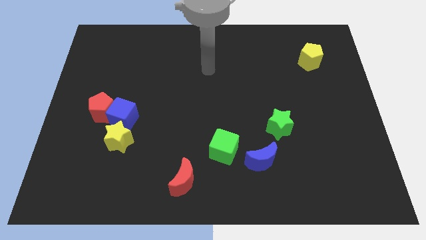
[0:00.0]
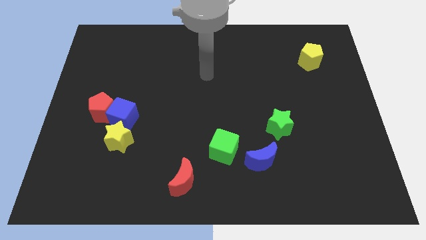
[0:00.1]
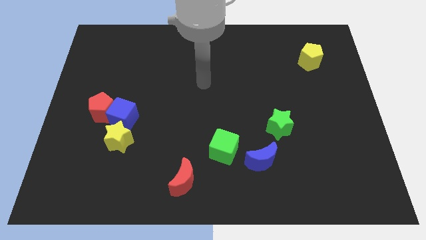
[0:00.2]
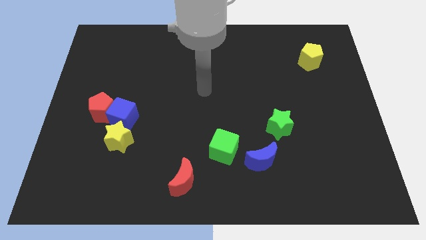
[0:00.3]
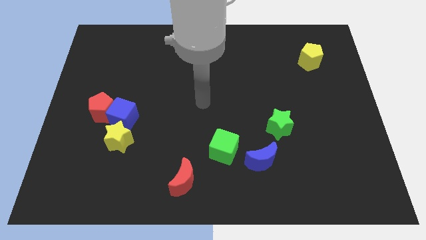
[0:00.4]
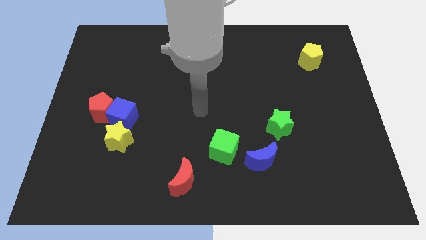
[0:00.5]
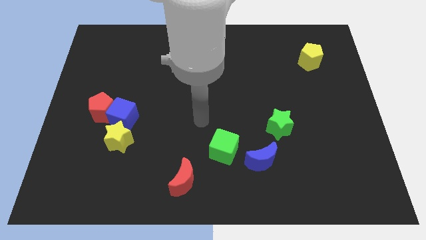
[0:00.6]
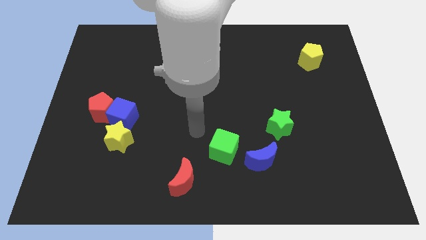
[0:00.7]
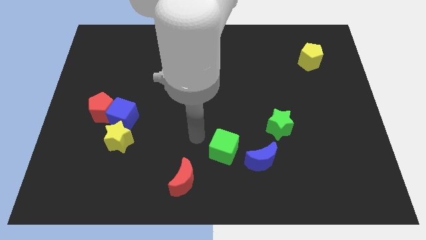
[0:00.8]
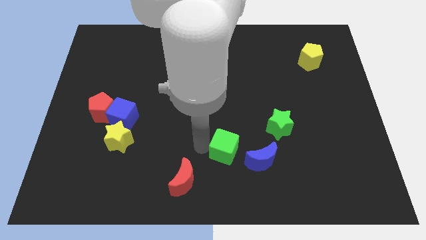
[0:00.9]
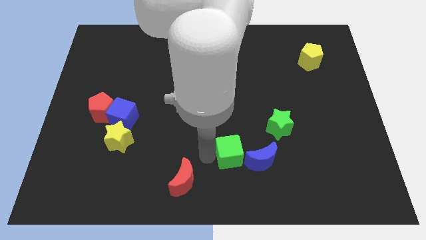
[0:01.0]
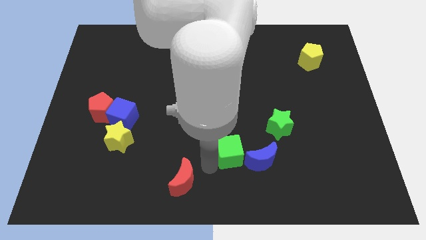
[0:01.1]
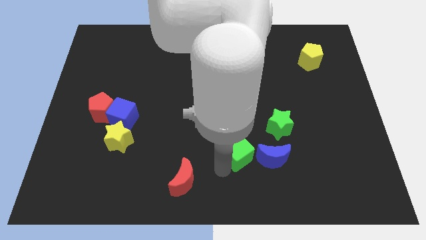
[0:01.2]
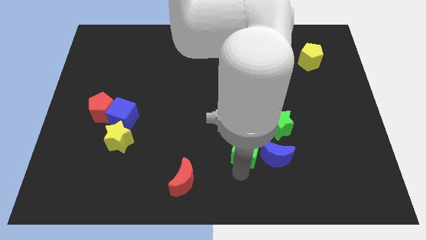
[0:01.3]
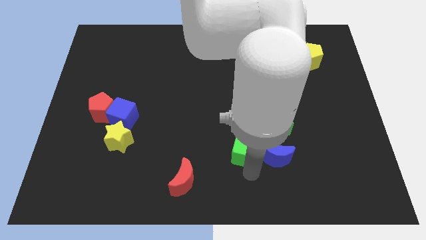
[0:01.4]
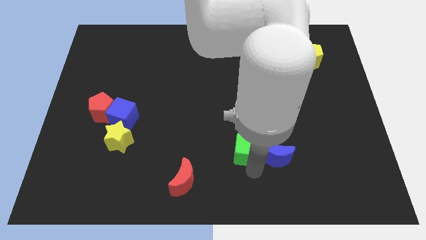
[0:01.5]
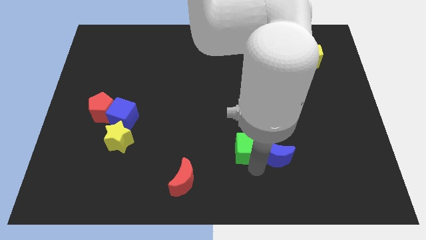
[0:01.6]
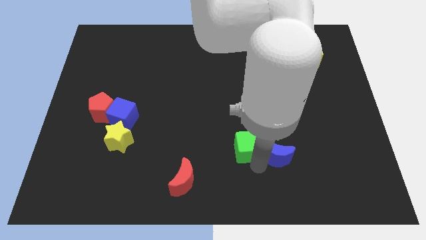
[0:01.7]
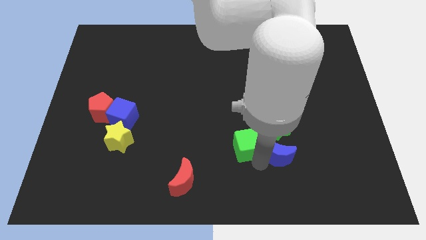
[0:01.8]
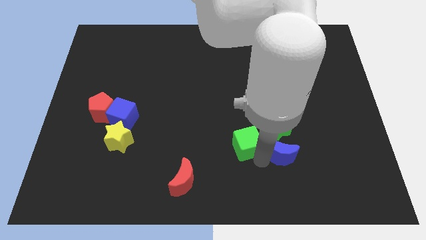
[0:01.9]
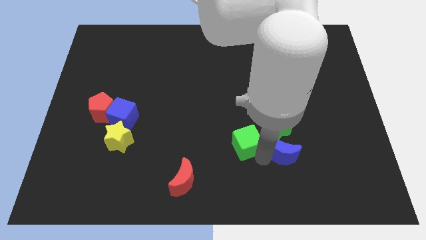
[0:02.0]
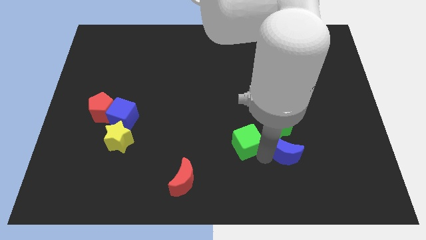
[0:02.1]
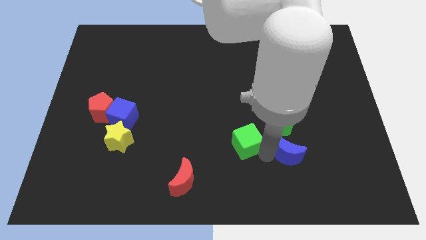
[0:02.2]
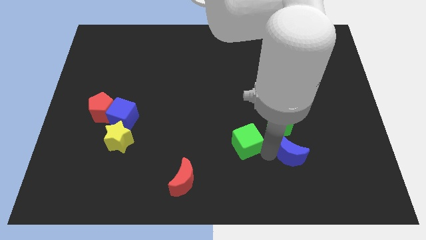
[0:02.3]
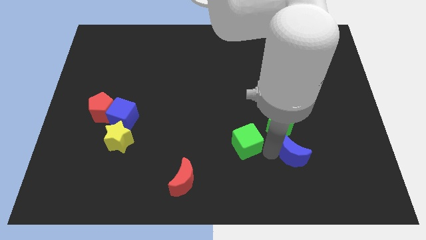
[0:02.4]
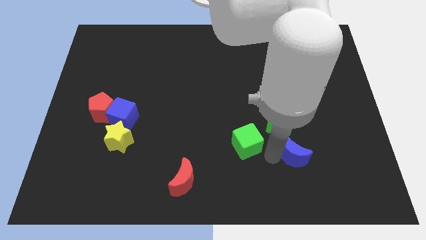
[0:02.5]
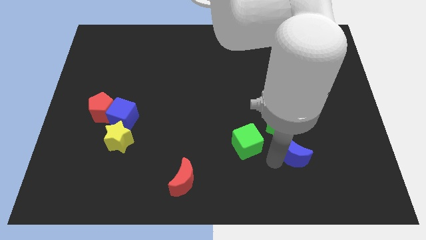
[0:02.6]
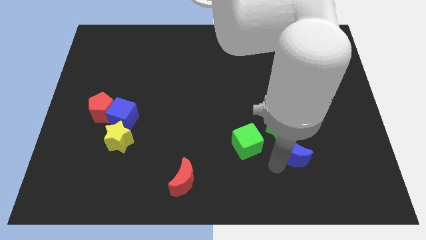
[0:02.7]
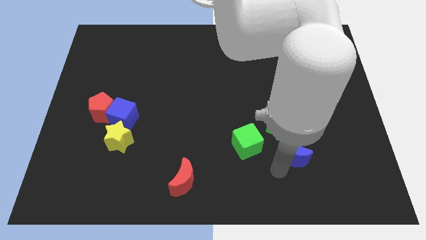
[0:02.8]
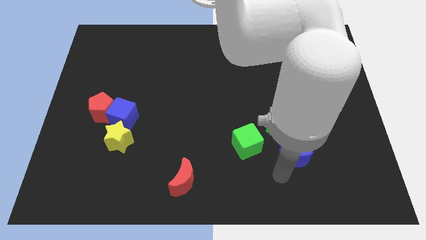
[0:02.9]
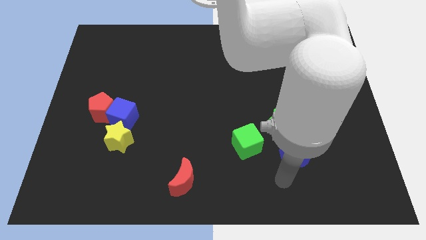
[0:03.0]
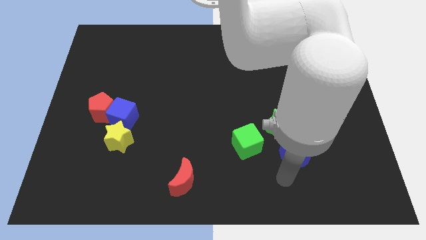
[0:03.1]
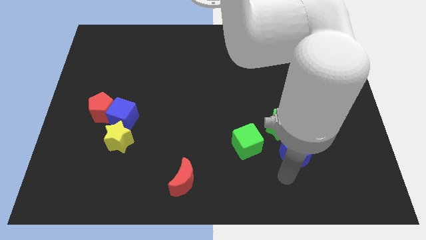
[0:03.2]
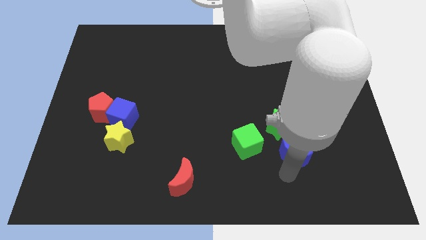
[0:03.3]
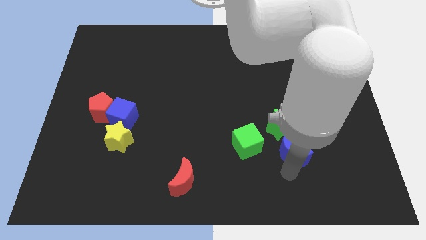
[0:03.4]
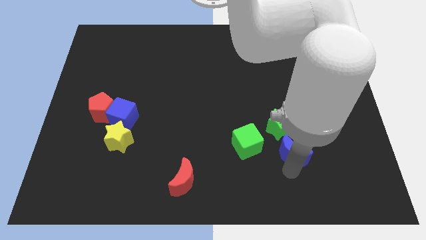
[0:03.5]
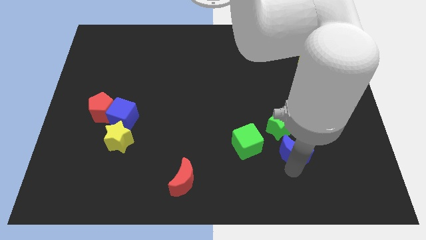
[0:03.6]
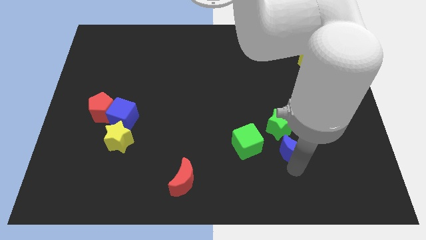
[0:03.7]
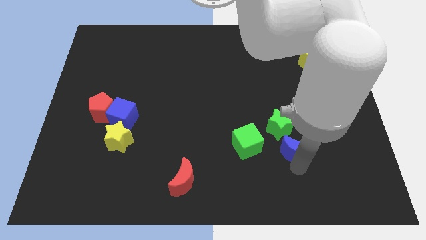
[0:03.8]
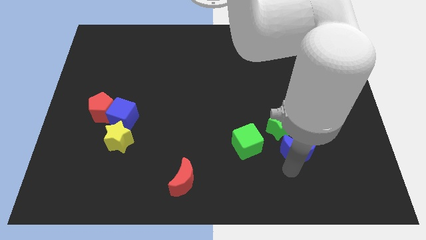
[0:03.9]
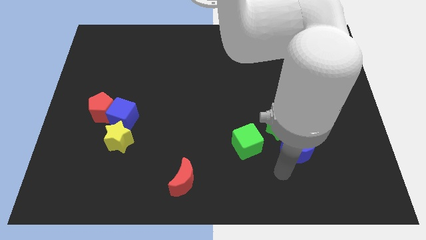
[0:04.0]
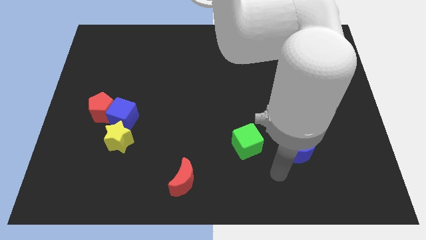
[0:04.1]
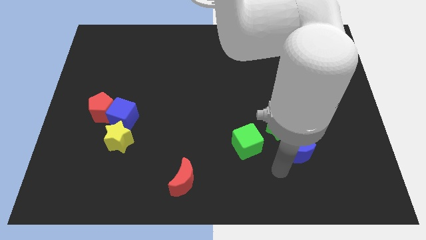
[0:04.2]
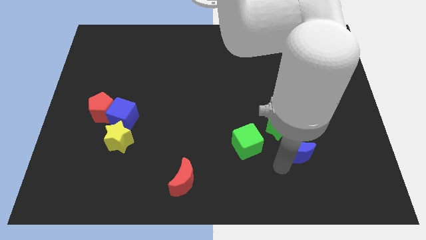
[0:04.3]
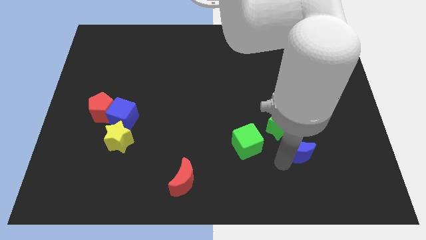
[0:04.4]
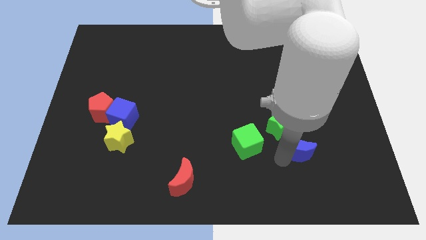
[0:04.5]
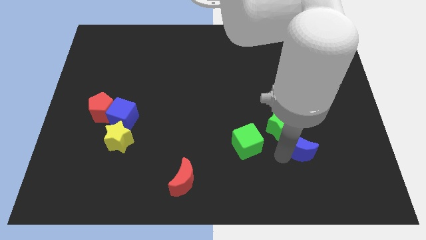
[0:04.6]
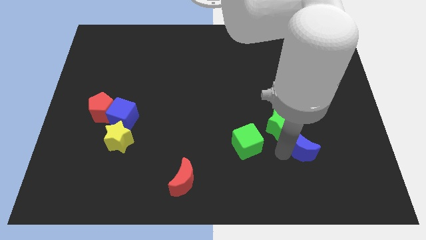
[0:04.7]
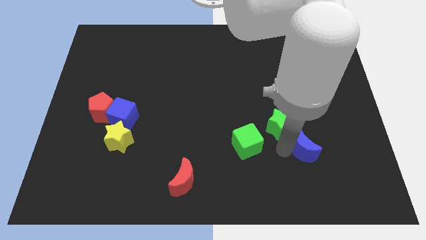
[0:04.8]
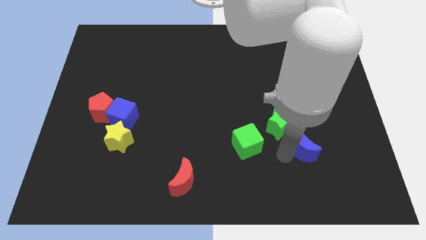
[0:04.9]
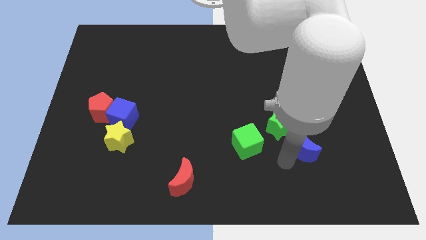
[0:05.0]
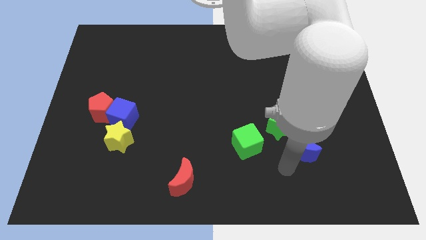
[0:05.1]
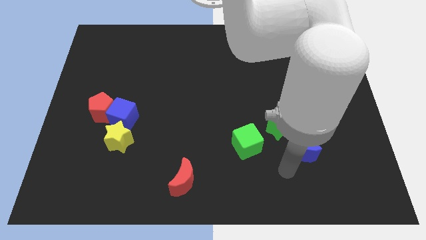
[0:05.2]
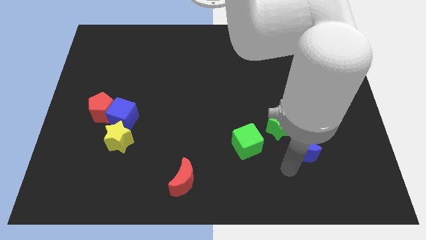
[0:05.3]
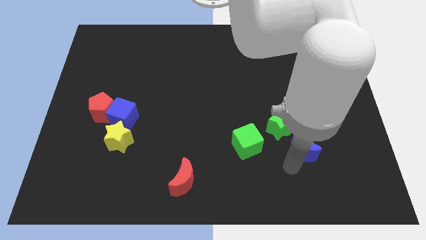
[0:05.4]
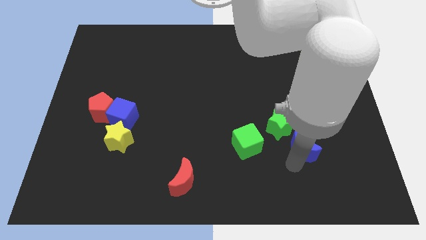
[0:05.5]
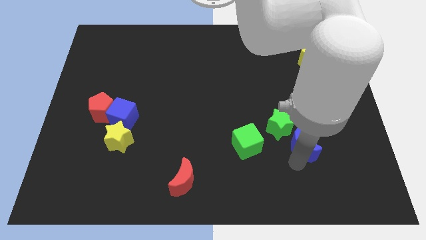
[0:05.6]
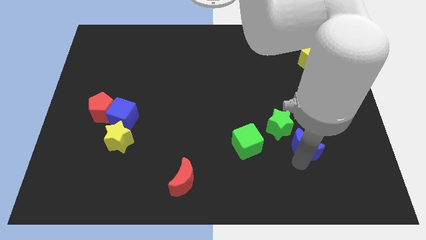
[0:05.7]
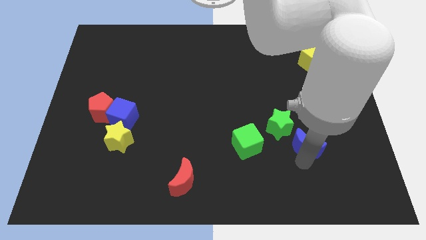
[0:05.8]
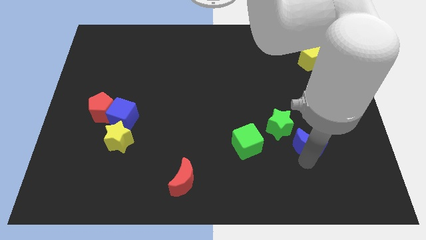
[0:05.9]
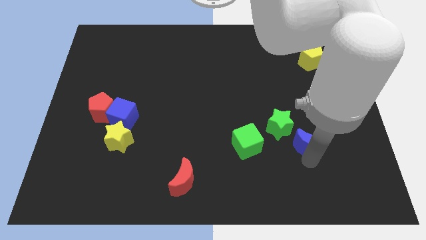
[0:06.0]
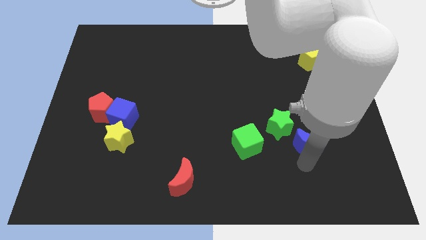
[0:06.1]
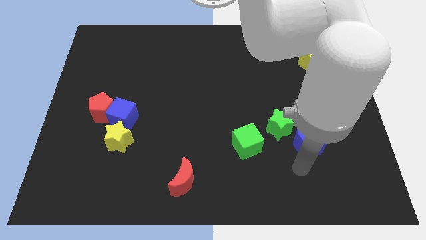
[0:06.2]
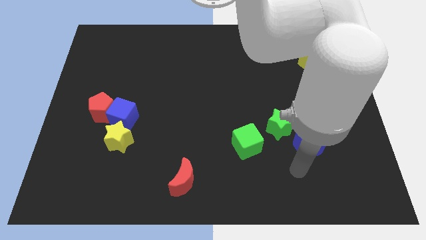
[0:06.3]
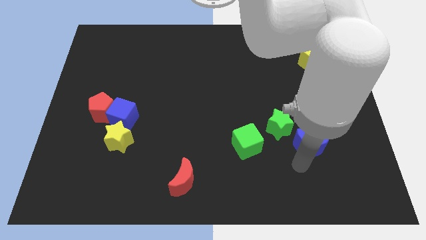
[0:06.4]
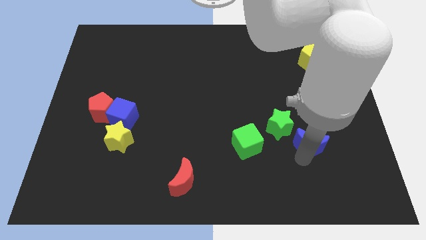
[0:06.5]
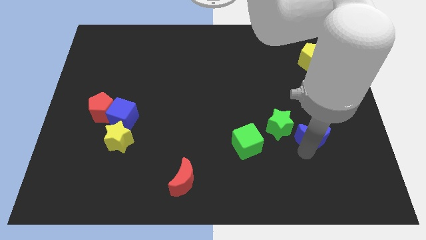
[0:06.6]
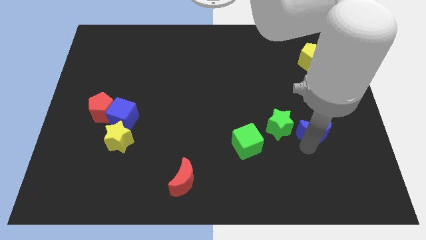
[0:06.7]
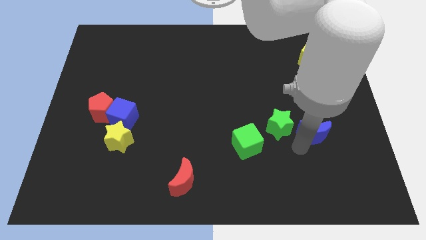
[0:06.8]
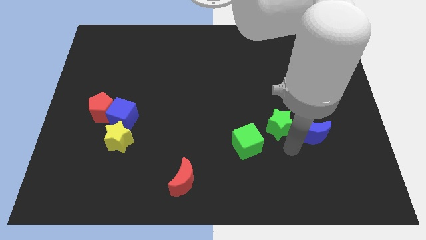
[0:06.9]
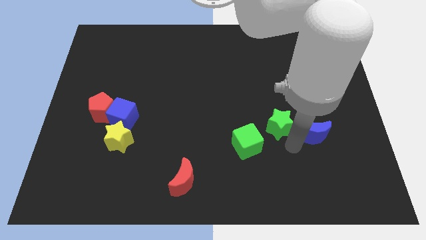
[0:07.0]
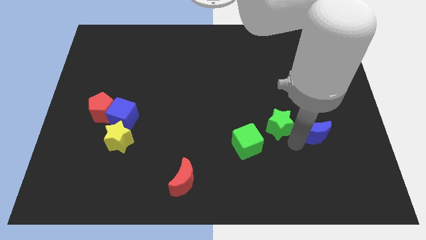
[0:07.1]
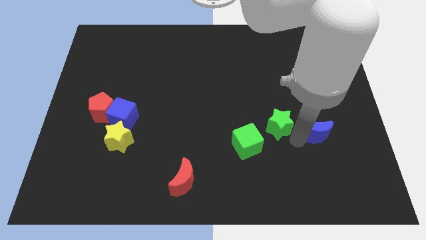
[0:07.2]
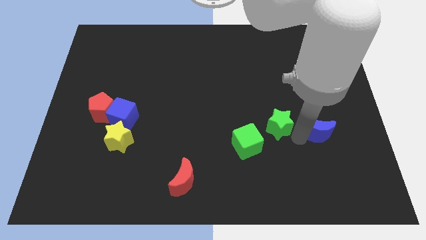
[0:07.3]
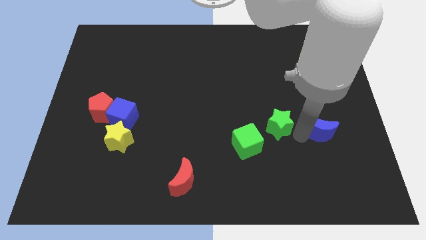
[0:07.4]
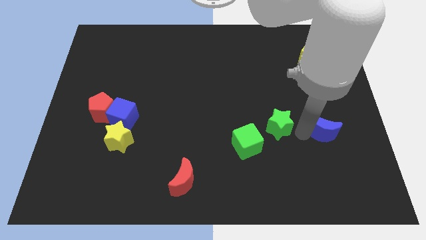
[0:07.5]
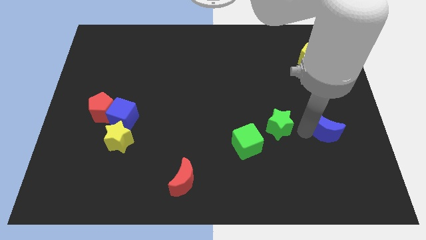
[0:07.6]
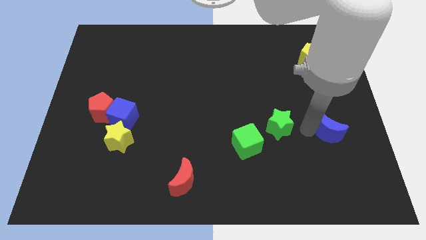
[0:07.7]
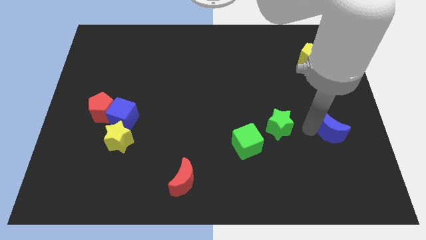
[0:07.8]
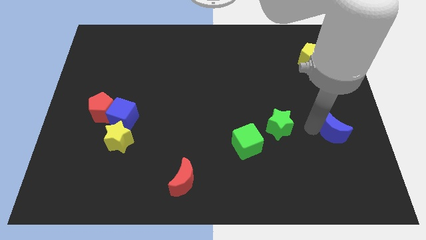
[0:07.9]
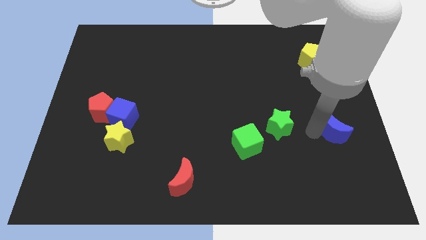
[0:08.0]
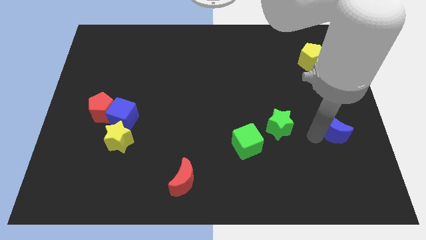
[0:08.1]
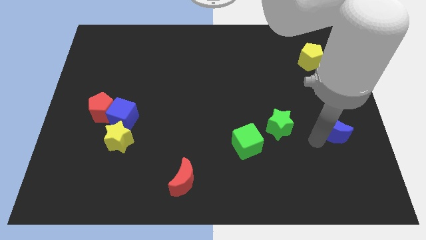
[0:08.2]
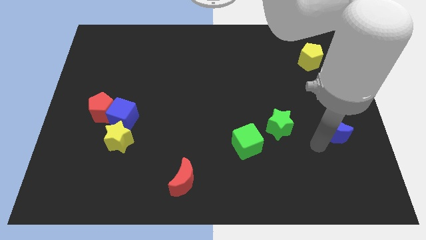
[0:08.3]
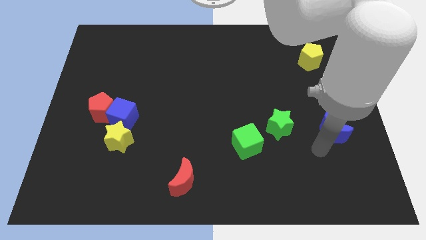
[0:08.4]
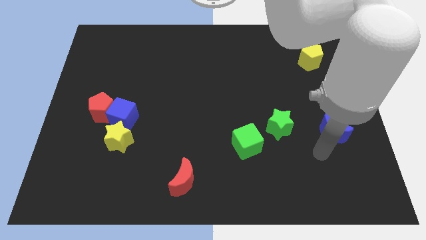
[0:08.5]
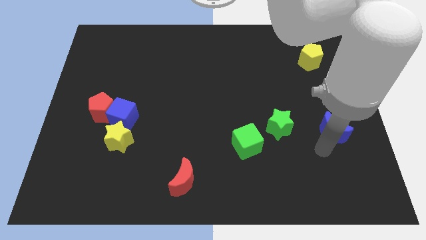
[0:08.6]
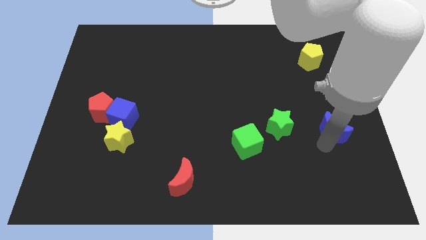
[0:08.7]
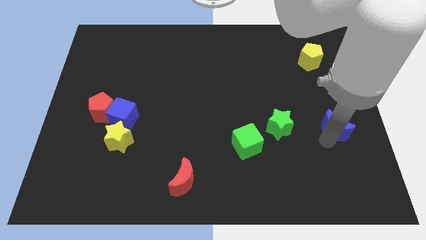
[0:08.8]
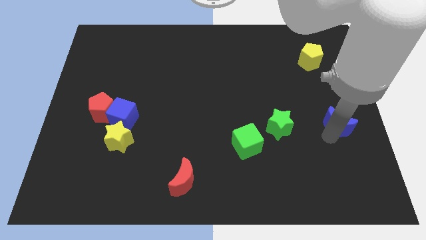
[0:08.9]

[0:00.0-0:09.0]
slide the blue moon to the right side
